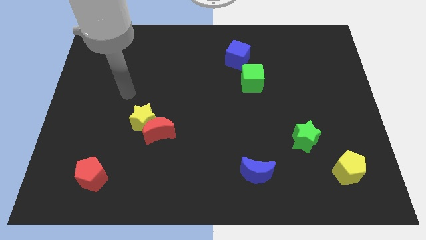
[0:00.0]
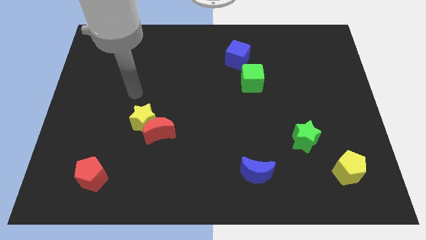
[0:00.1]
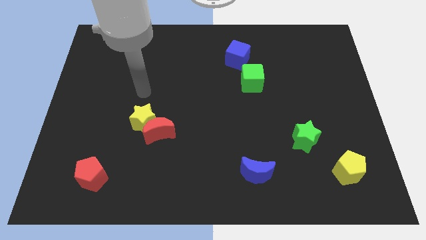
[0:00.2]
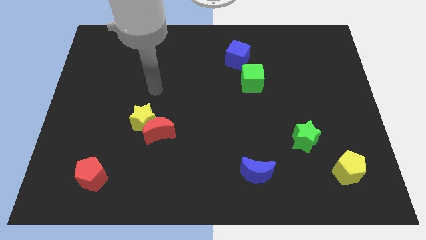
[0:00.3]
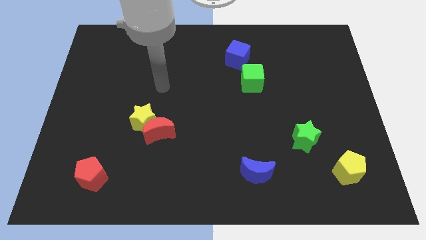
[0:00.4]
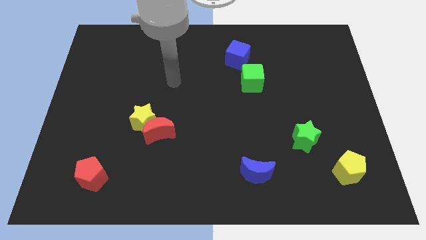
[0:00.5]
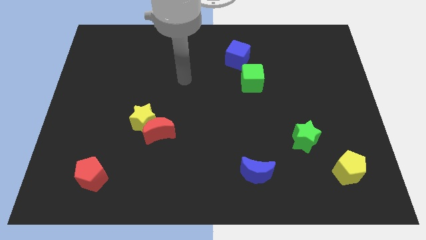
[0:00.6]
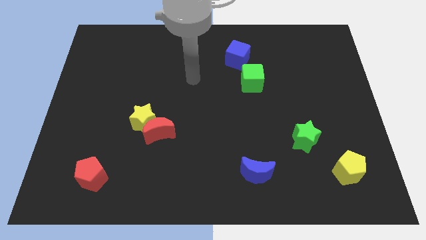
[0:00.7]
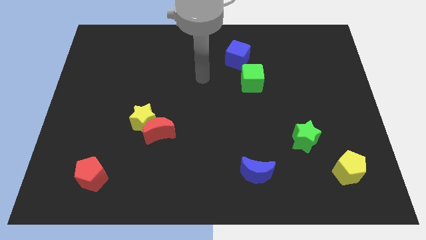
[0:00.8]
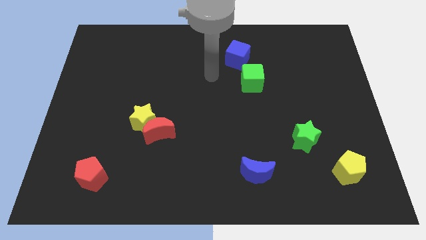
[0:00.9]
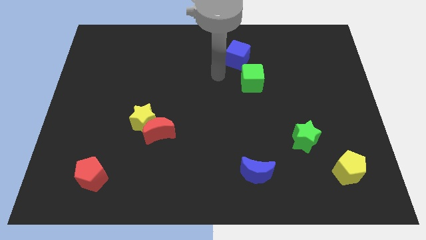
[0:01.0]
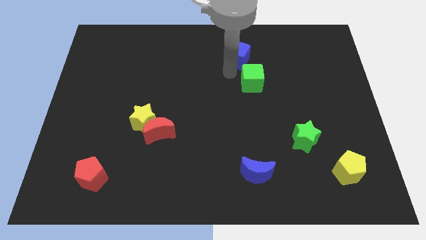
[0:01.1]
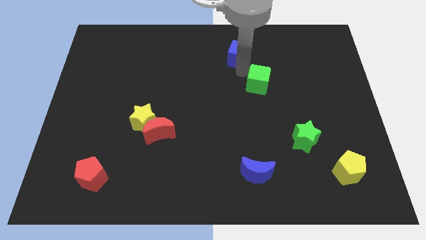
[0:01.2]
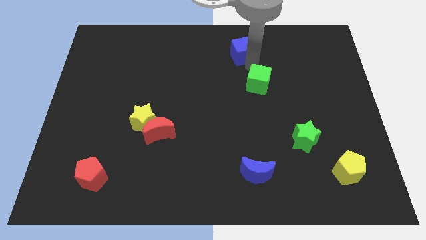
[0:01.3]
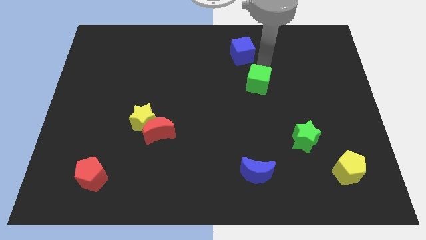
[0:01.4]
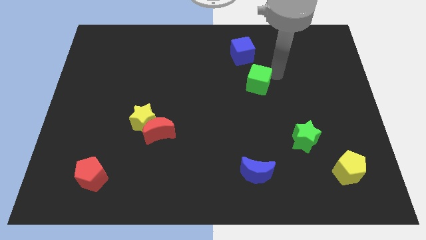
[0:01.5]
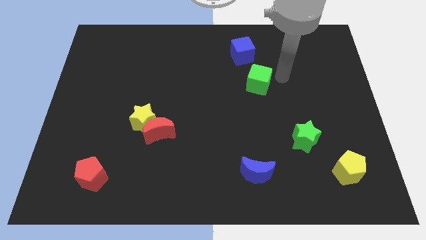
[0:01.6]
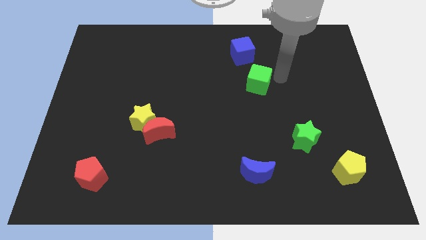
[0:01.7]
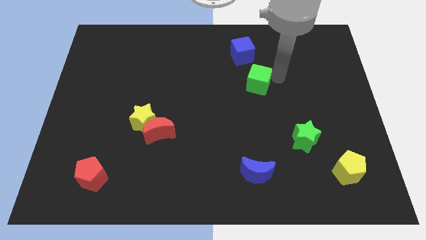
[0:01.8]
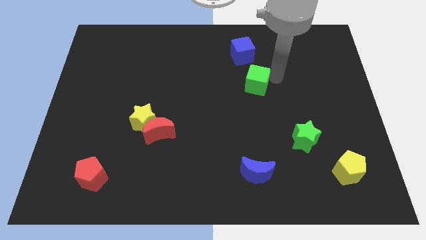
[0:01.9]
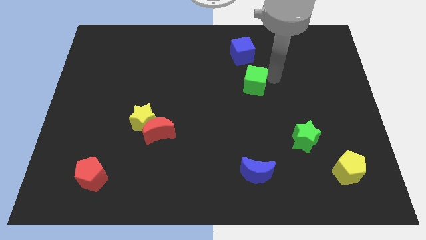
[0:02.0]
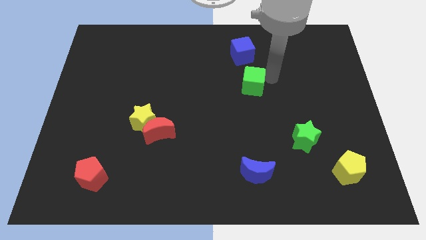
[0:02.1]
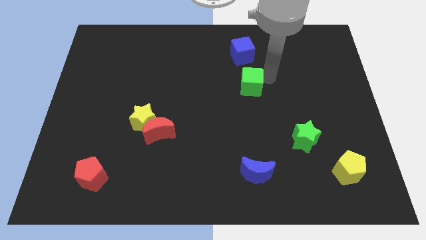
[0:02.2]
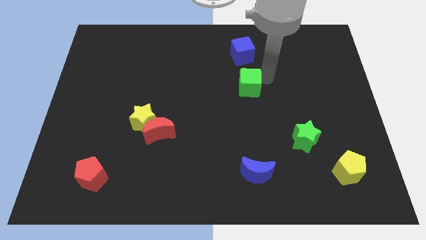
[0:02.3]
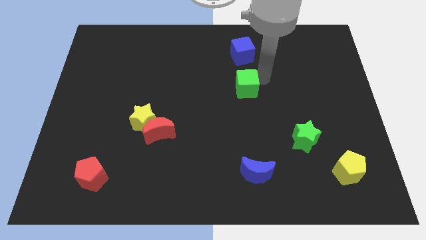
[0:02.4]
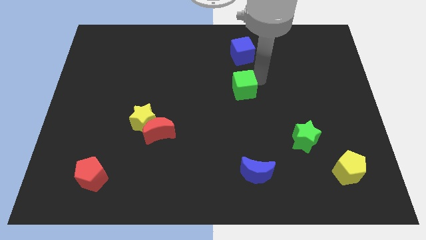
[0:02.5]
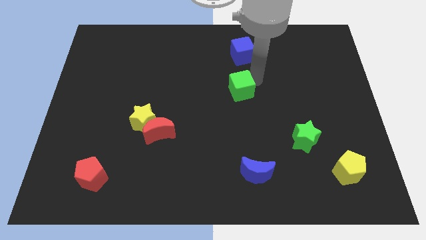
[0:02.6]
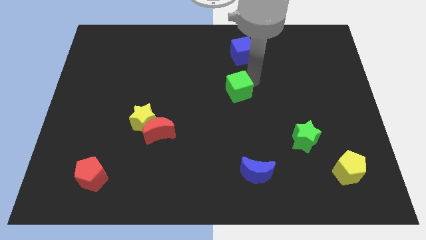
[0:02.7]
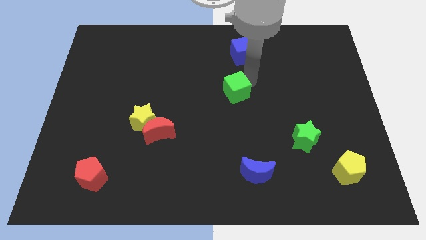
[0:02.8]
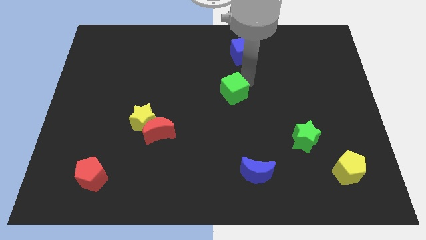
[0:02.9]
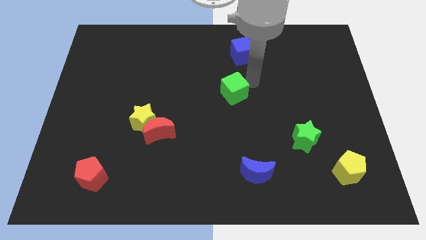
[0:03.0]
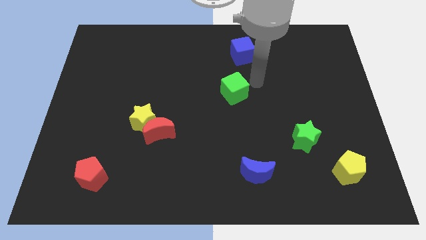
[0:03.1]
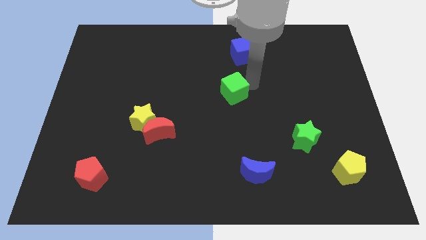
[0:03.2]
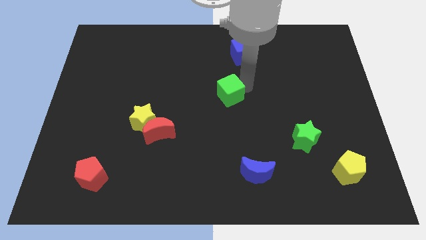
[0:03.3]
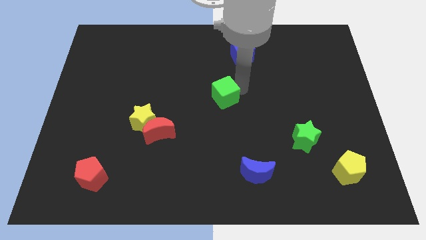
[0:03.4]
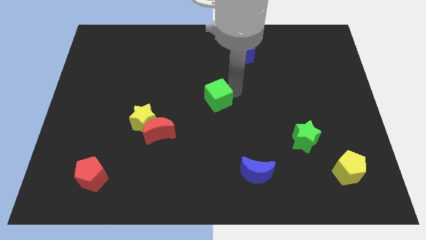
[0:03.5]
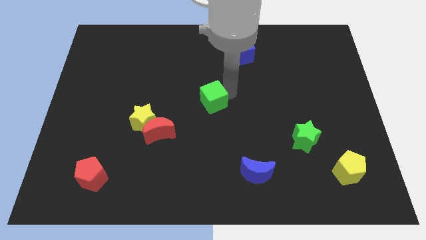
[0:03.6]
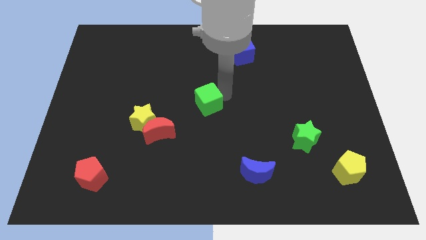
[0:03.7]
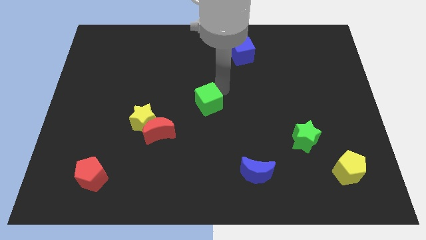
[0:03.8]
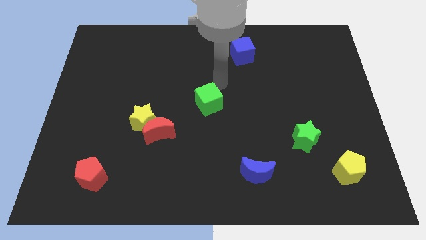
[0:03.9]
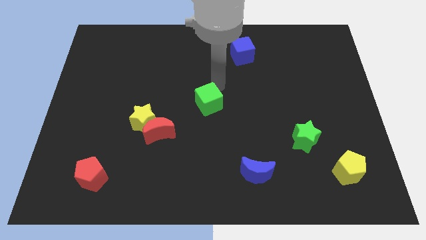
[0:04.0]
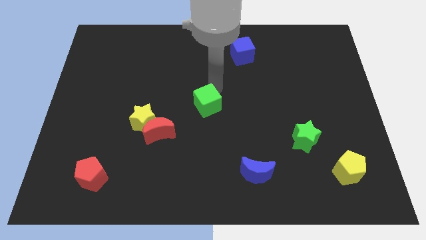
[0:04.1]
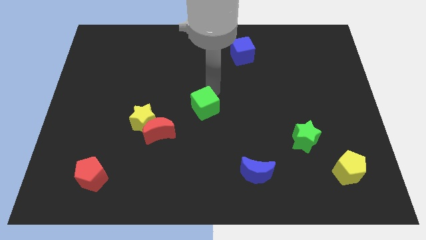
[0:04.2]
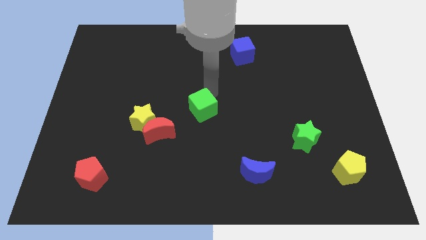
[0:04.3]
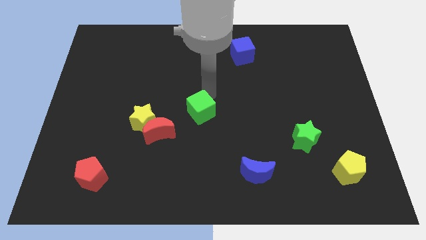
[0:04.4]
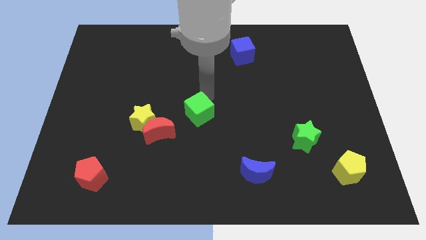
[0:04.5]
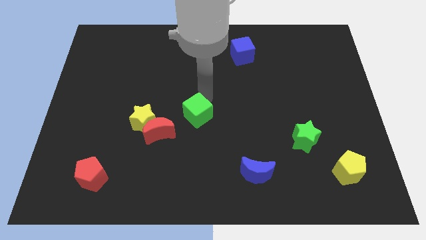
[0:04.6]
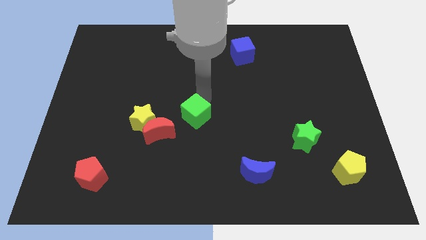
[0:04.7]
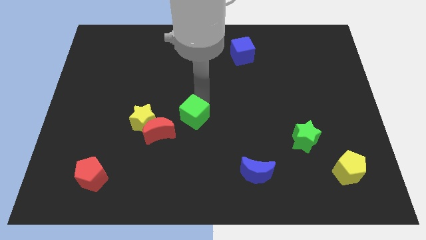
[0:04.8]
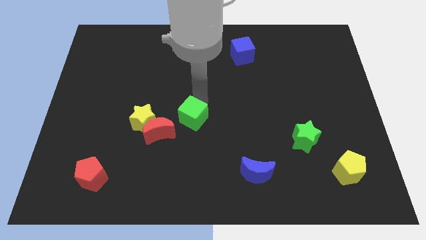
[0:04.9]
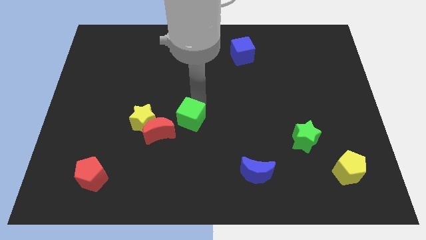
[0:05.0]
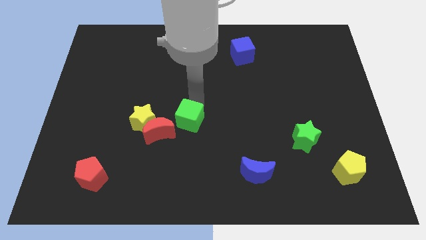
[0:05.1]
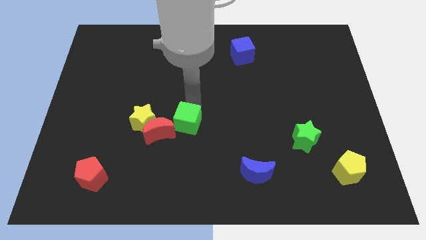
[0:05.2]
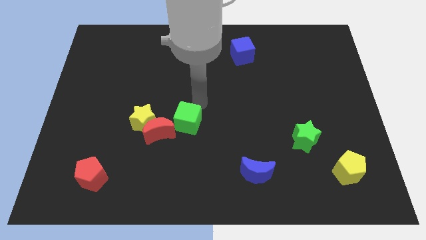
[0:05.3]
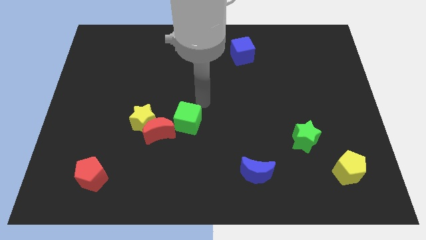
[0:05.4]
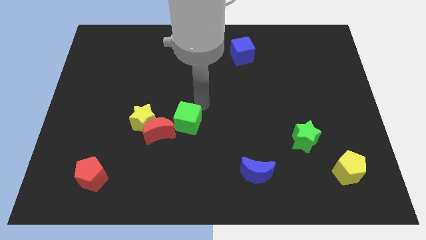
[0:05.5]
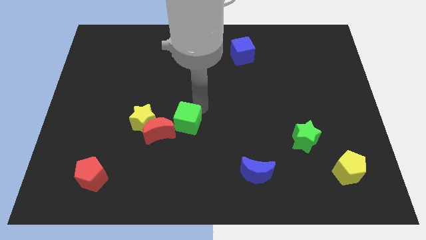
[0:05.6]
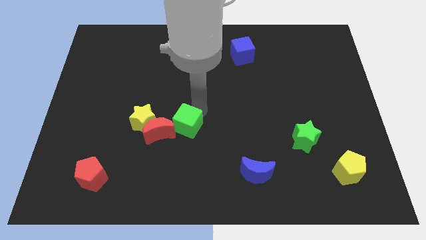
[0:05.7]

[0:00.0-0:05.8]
move the green cube diagonally down and to the left

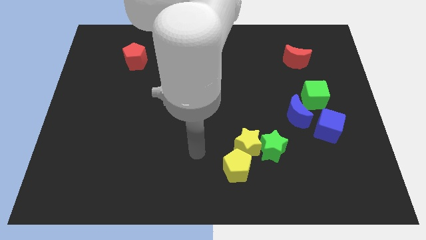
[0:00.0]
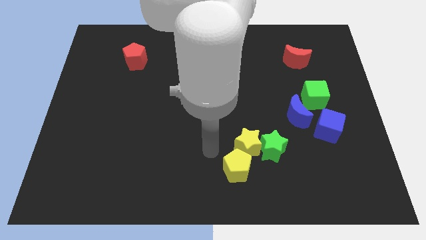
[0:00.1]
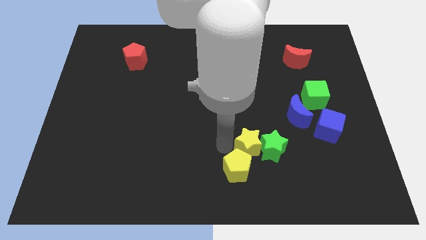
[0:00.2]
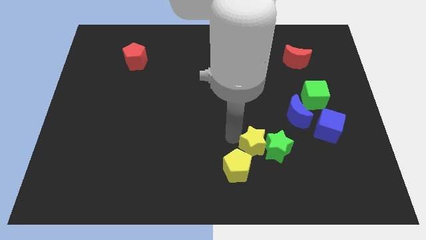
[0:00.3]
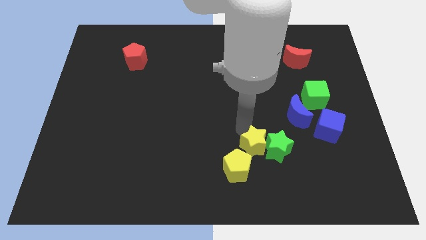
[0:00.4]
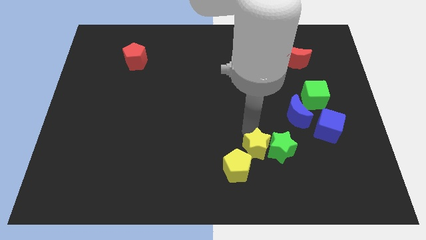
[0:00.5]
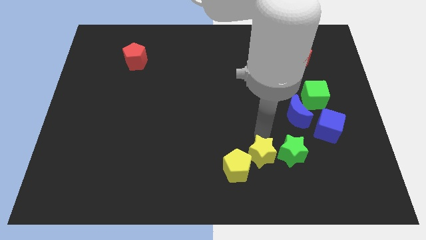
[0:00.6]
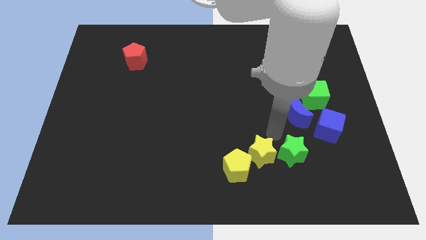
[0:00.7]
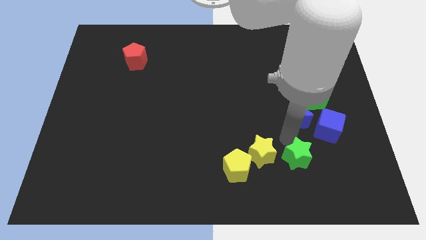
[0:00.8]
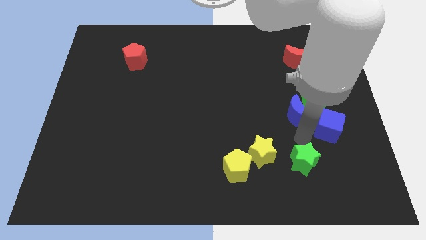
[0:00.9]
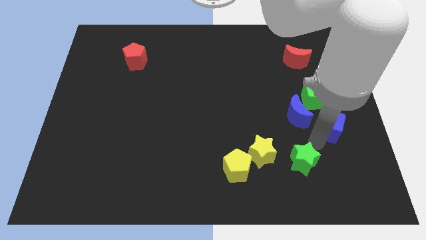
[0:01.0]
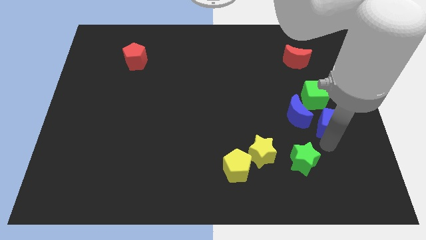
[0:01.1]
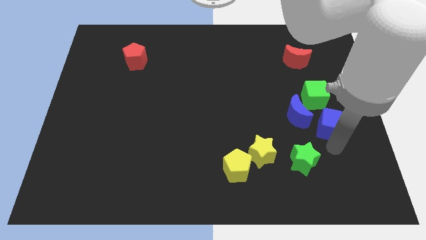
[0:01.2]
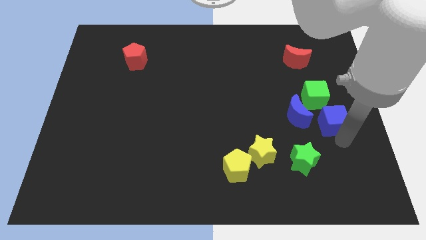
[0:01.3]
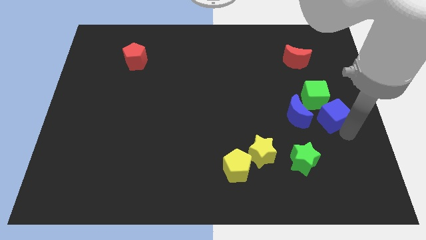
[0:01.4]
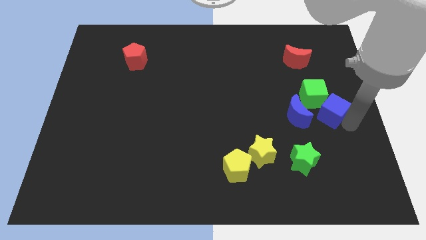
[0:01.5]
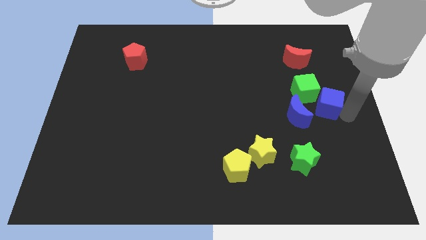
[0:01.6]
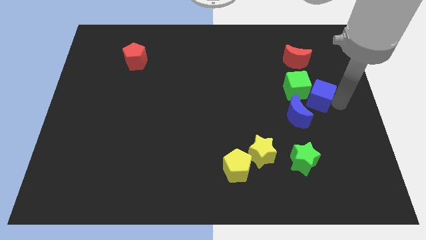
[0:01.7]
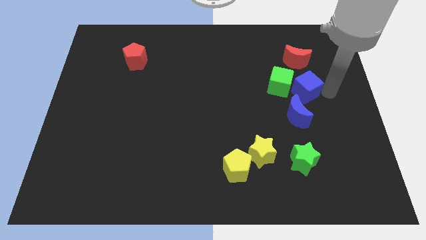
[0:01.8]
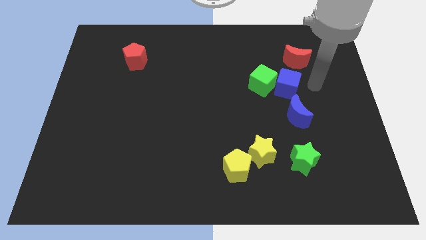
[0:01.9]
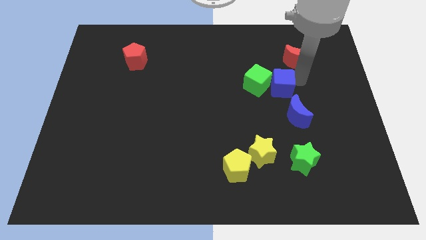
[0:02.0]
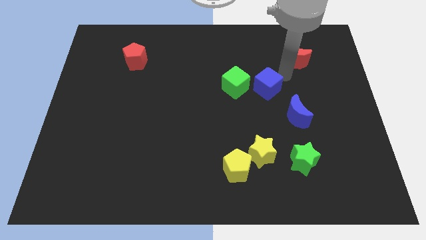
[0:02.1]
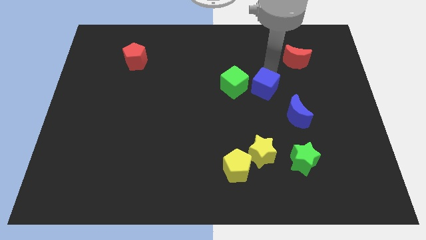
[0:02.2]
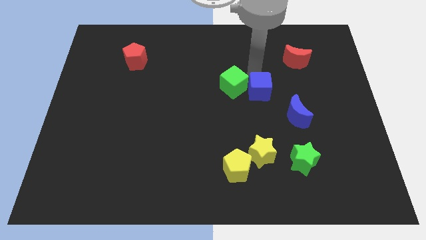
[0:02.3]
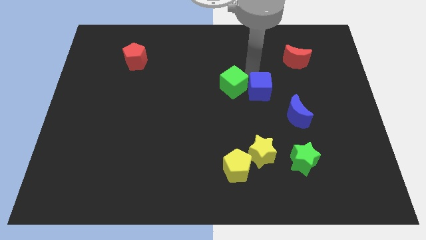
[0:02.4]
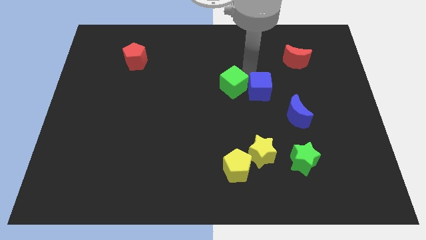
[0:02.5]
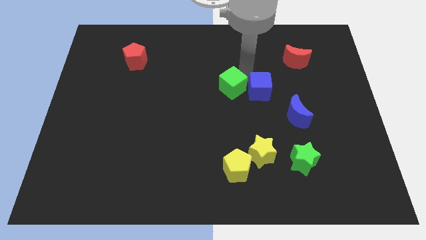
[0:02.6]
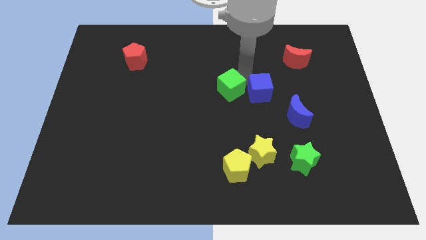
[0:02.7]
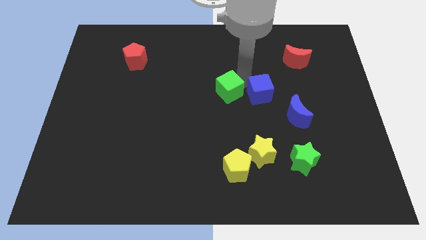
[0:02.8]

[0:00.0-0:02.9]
move the green cube left
